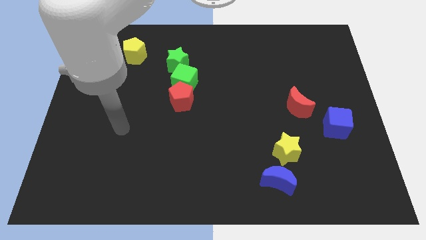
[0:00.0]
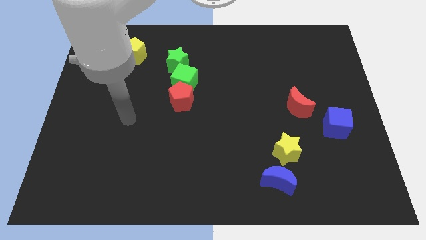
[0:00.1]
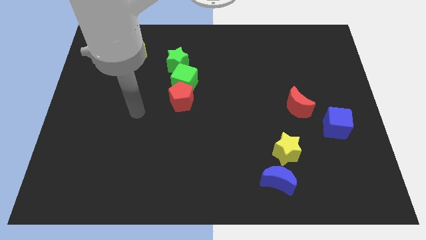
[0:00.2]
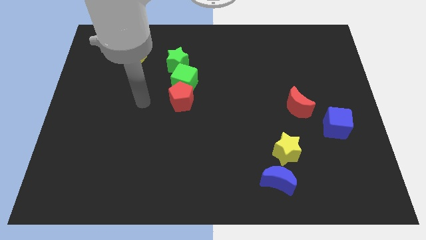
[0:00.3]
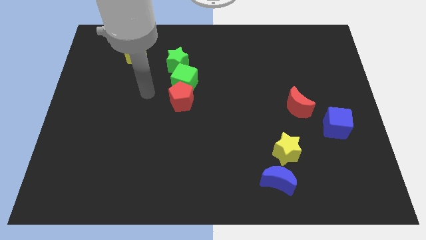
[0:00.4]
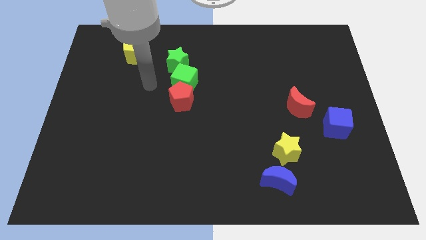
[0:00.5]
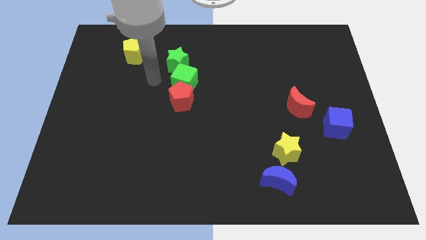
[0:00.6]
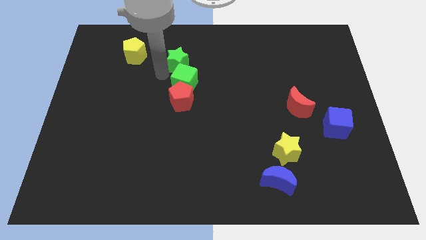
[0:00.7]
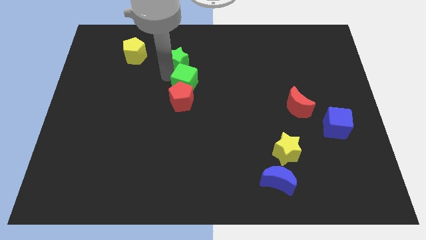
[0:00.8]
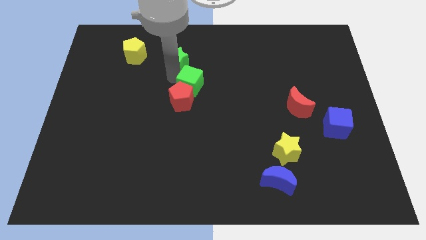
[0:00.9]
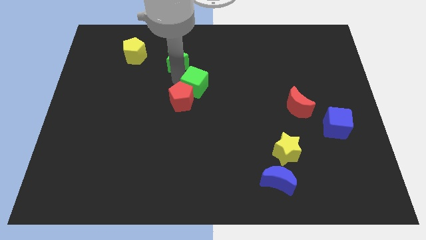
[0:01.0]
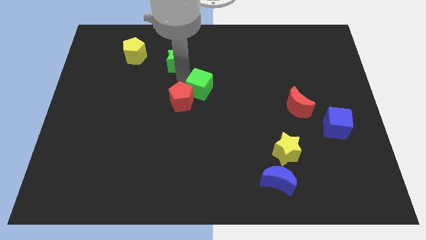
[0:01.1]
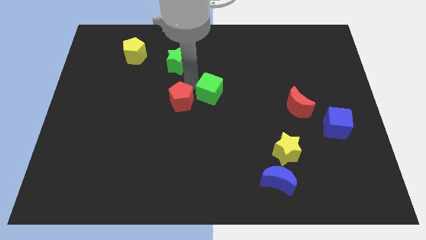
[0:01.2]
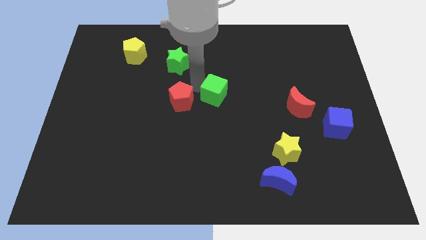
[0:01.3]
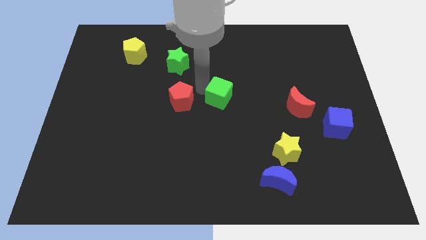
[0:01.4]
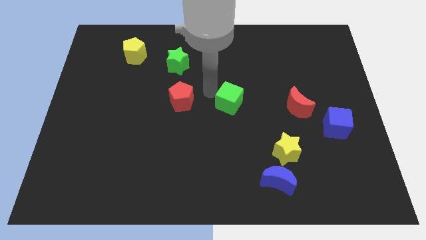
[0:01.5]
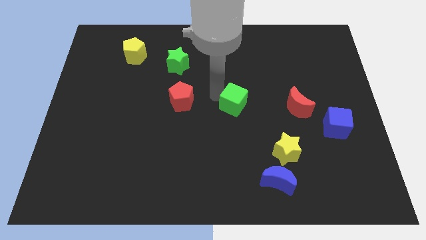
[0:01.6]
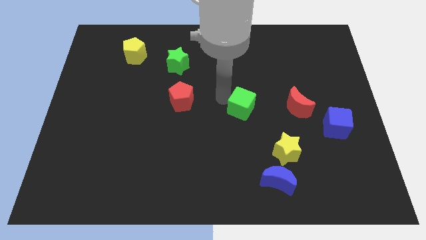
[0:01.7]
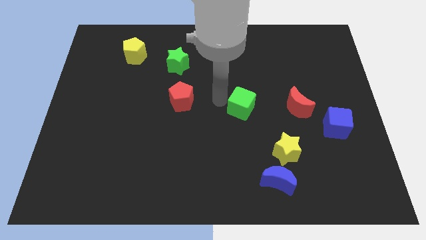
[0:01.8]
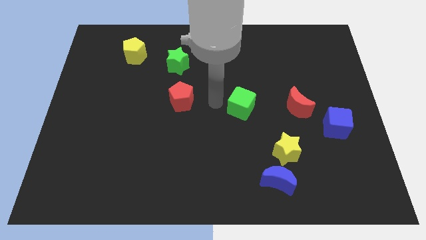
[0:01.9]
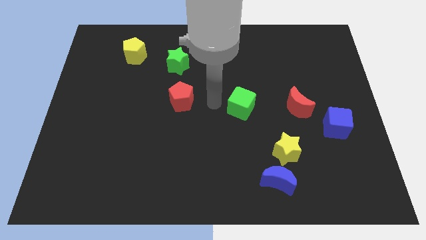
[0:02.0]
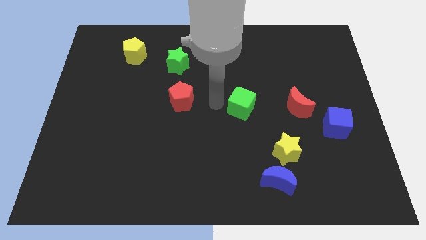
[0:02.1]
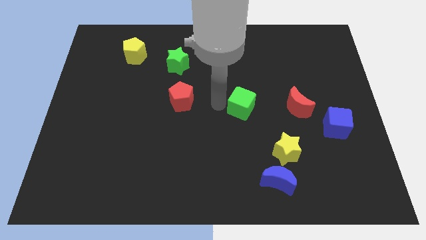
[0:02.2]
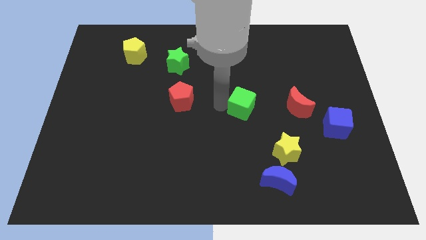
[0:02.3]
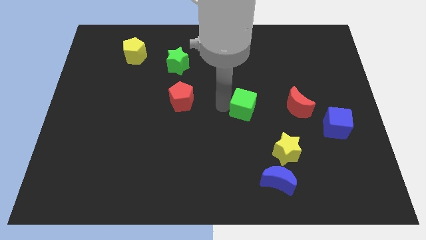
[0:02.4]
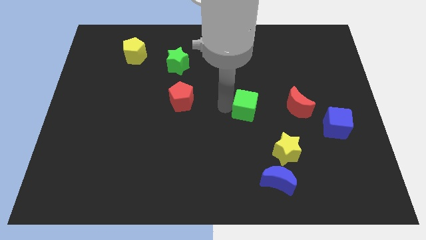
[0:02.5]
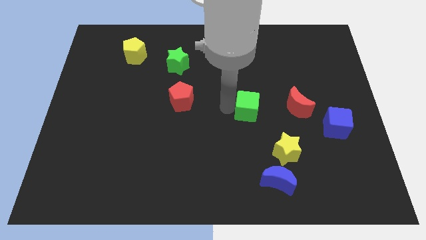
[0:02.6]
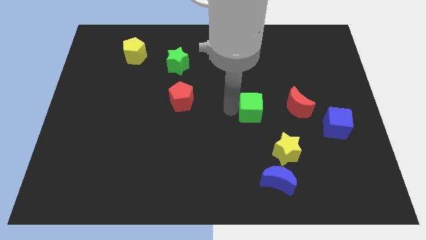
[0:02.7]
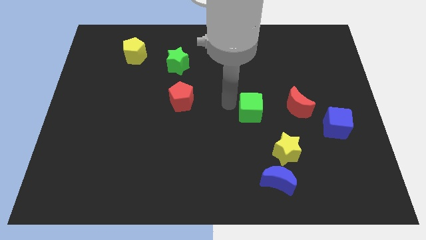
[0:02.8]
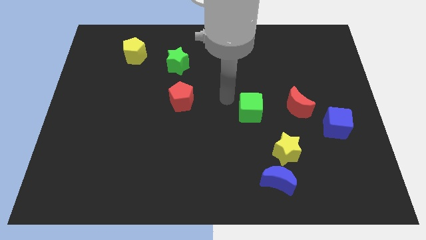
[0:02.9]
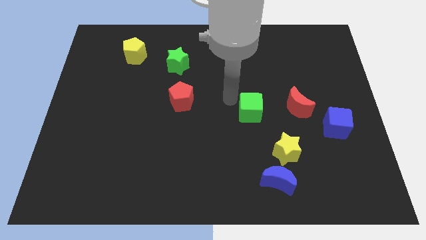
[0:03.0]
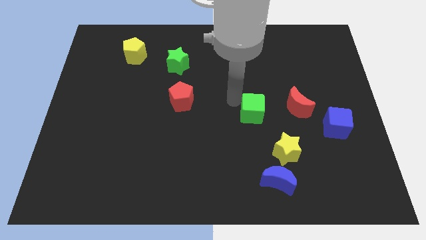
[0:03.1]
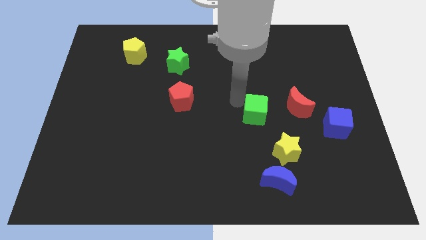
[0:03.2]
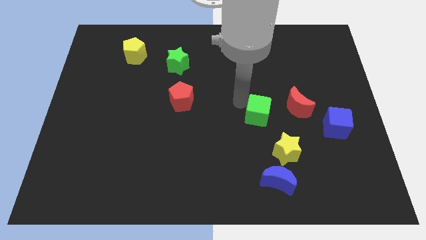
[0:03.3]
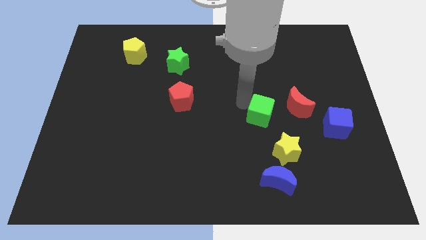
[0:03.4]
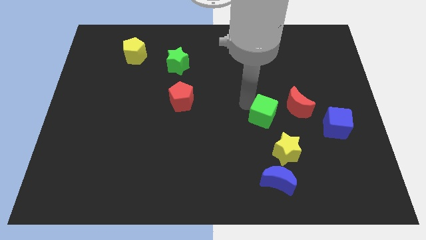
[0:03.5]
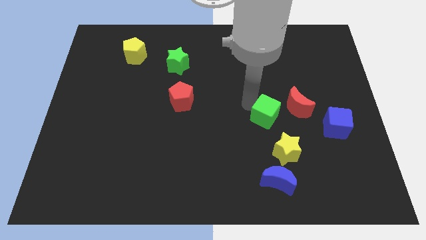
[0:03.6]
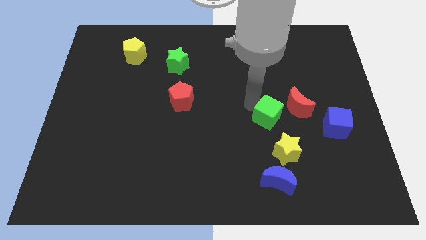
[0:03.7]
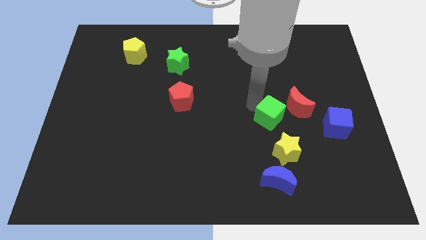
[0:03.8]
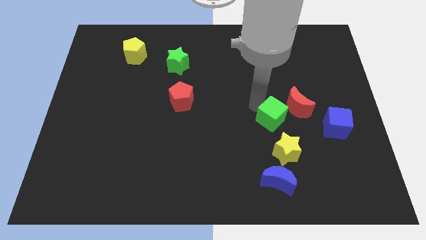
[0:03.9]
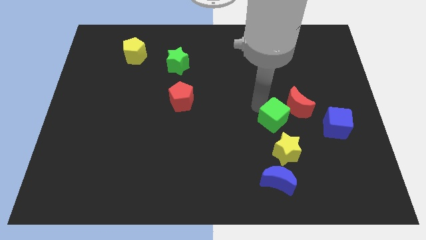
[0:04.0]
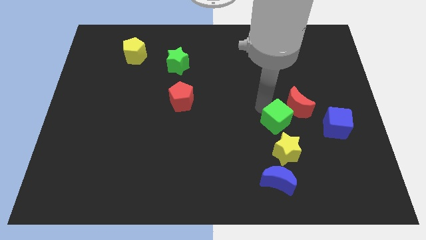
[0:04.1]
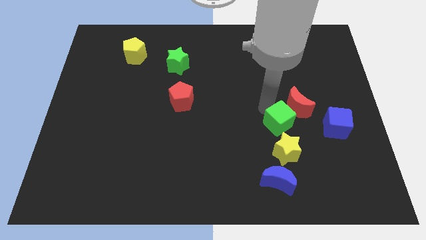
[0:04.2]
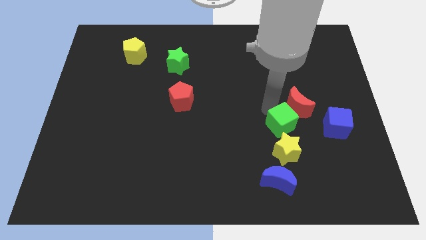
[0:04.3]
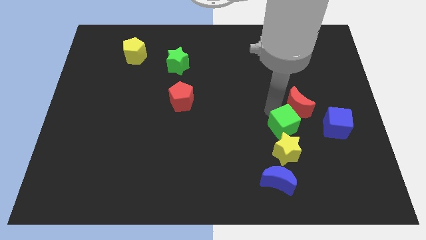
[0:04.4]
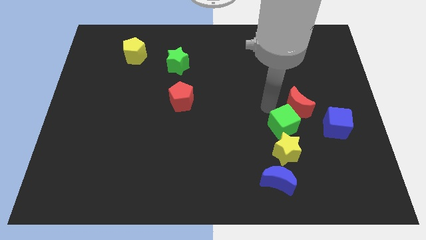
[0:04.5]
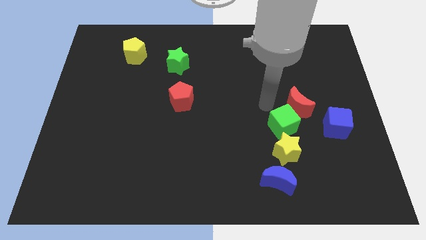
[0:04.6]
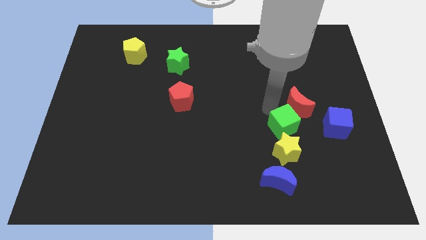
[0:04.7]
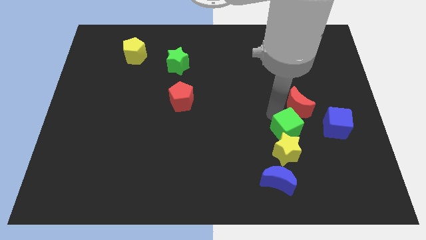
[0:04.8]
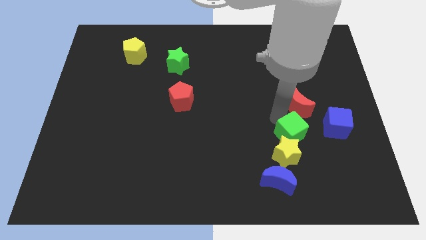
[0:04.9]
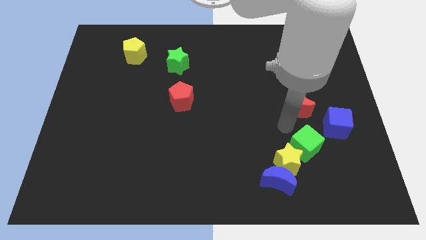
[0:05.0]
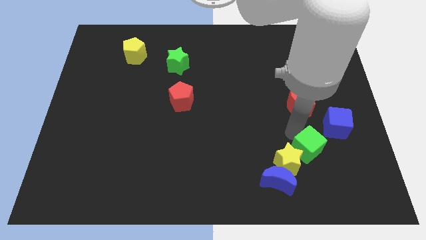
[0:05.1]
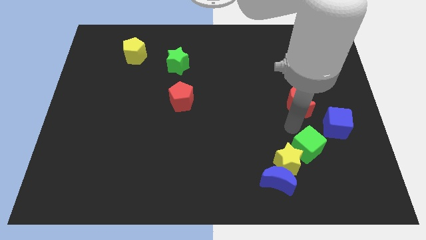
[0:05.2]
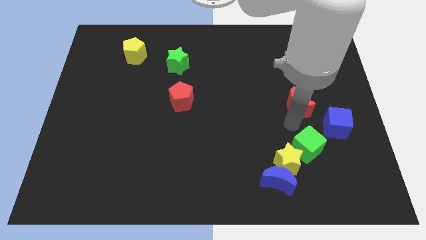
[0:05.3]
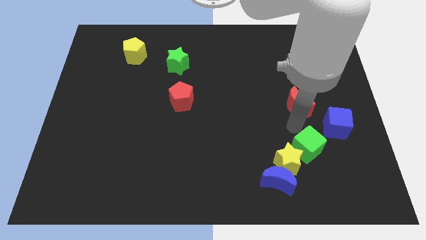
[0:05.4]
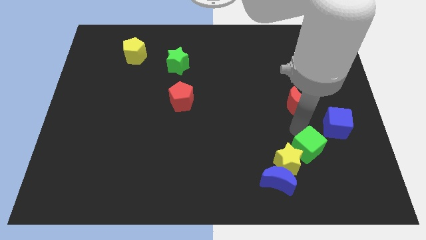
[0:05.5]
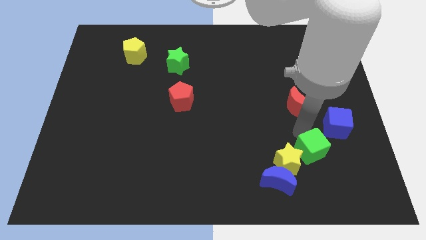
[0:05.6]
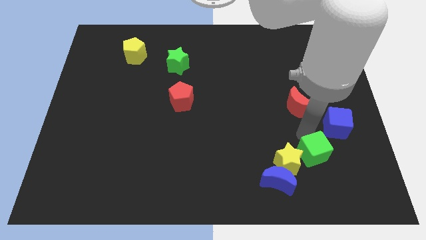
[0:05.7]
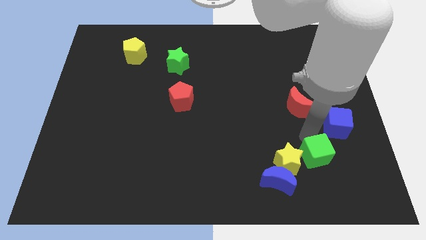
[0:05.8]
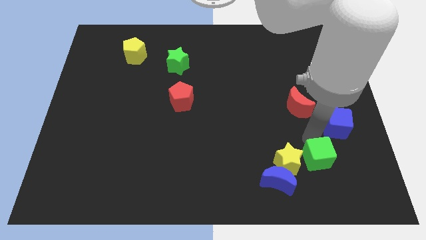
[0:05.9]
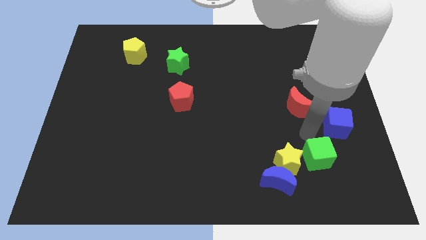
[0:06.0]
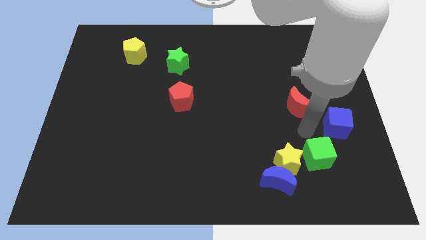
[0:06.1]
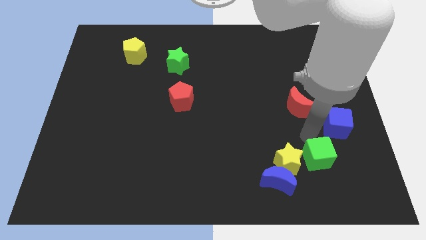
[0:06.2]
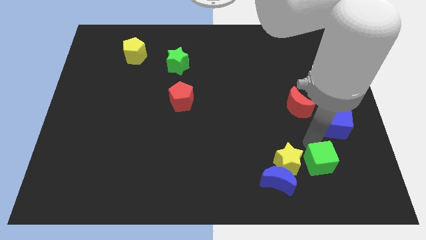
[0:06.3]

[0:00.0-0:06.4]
slide the green cube right of the blue moon

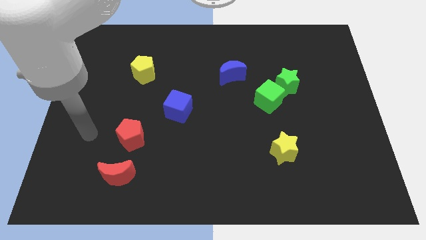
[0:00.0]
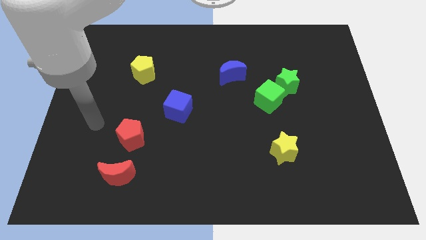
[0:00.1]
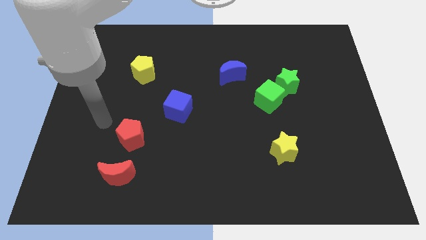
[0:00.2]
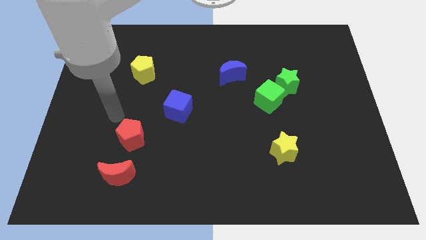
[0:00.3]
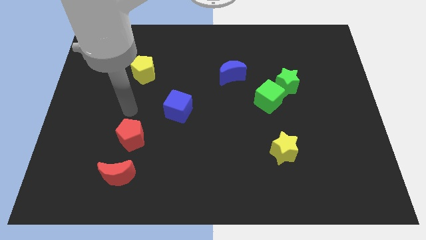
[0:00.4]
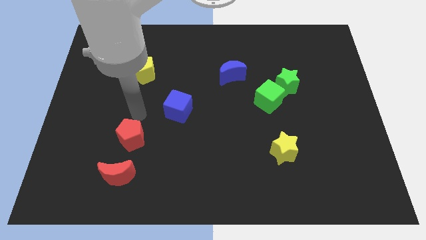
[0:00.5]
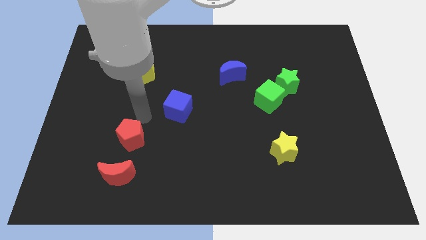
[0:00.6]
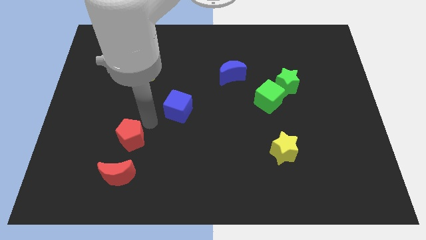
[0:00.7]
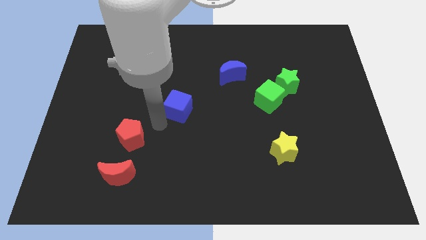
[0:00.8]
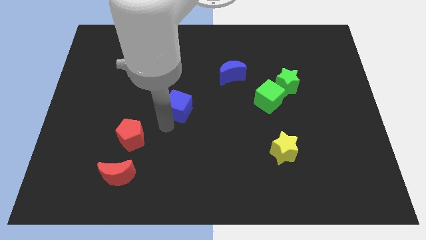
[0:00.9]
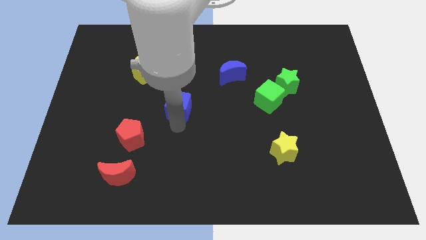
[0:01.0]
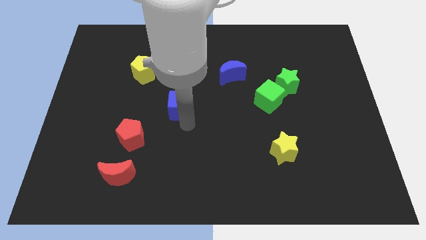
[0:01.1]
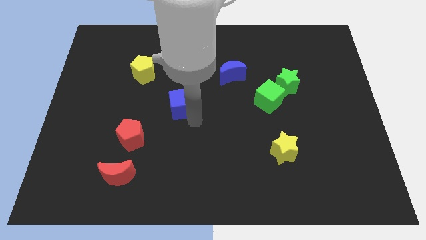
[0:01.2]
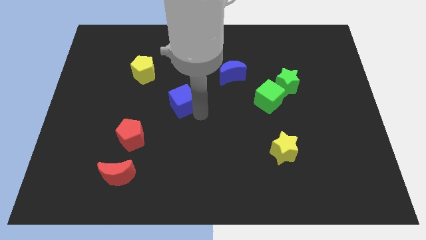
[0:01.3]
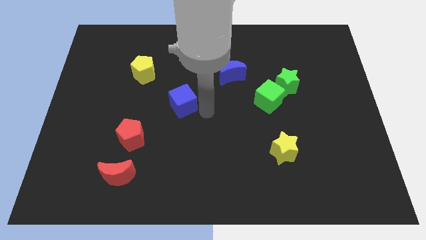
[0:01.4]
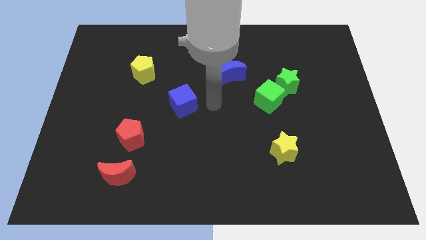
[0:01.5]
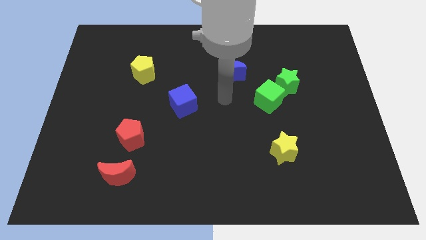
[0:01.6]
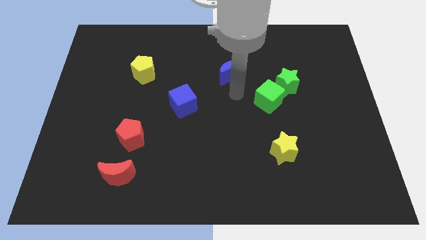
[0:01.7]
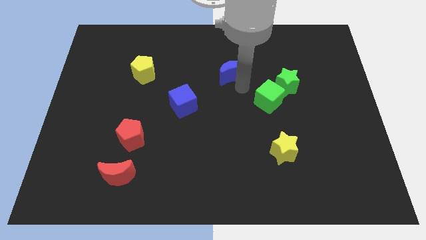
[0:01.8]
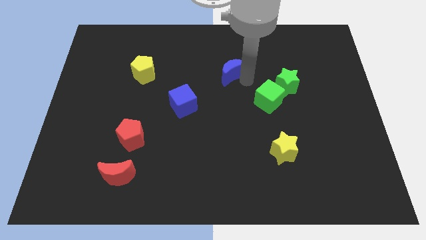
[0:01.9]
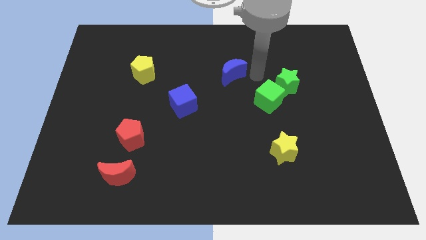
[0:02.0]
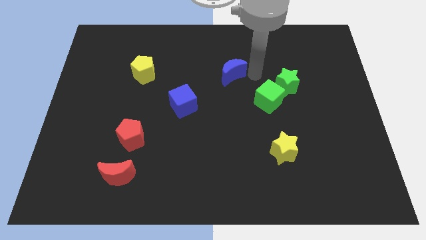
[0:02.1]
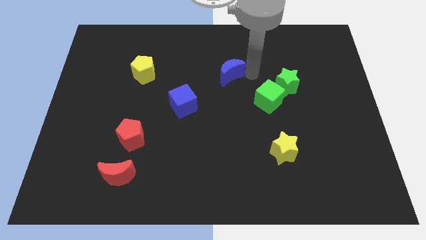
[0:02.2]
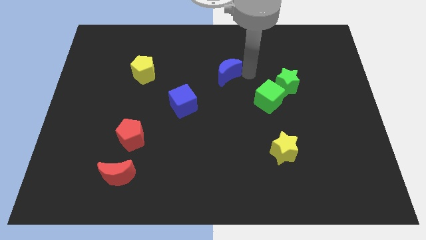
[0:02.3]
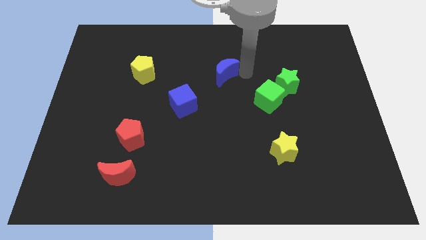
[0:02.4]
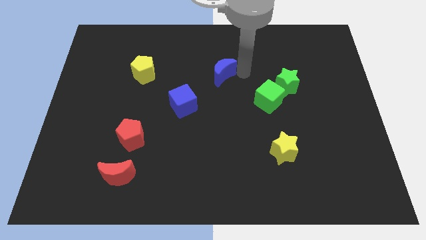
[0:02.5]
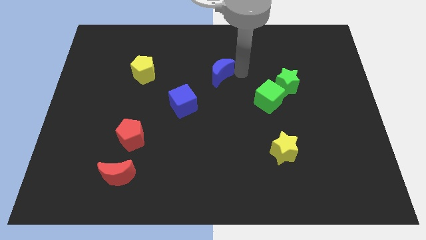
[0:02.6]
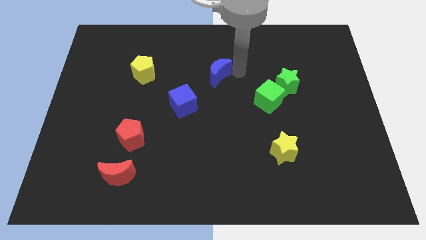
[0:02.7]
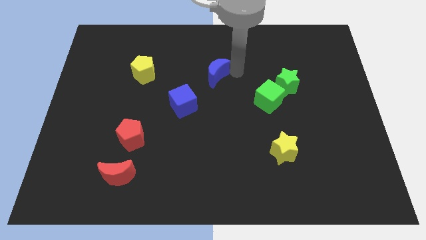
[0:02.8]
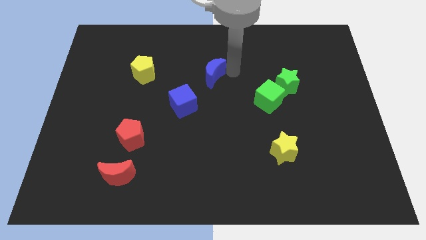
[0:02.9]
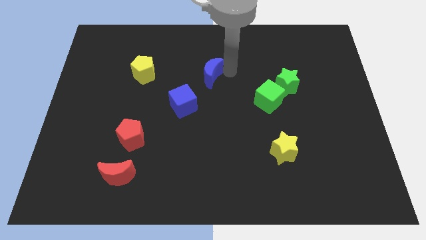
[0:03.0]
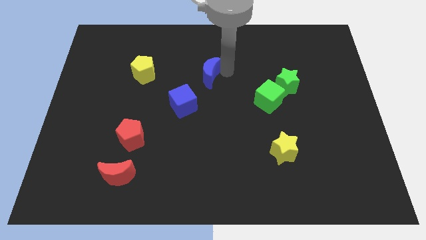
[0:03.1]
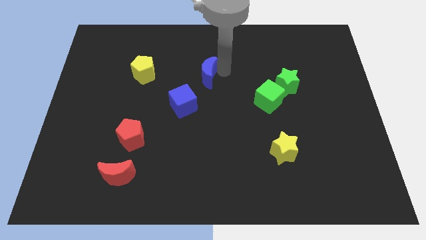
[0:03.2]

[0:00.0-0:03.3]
put the blue moon to the right side of the yellow pentagon
